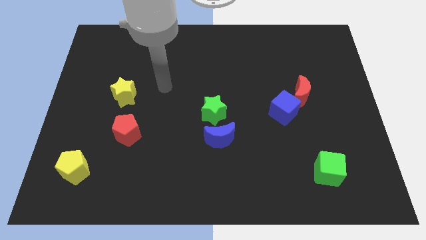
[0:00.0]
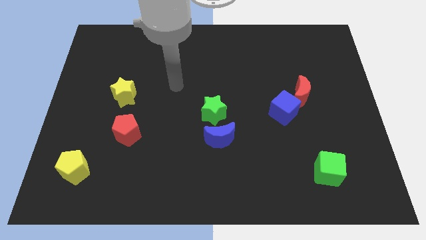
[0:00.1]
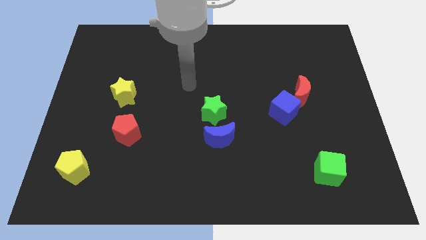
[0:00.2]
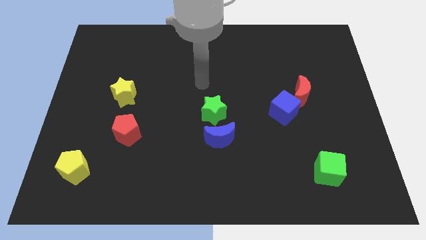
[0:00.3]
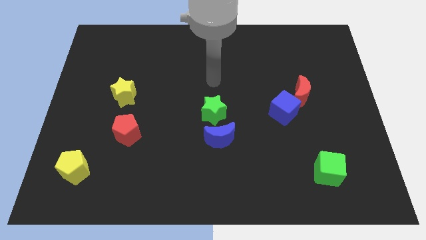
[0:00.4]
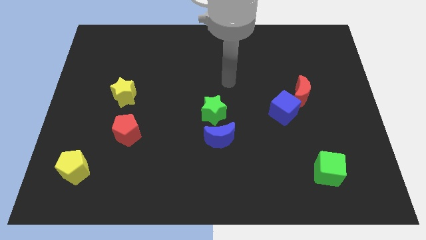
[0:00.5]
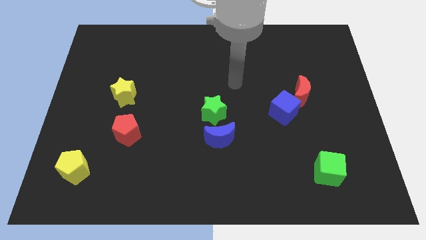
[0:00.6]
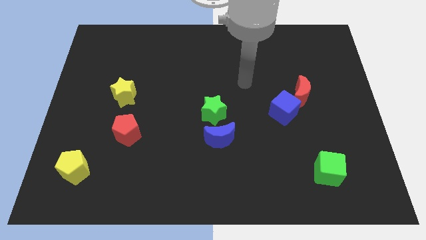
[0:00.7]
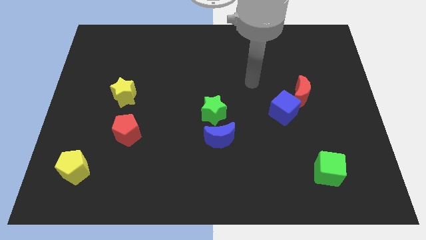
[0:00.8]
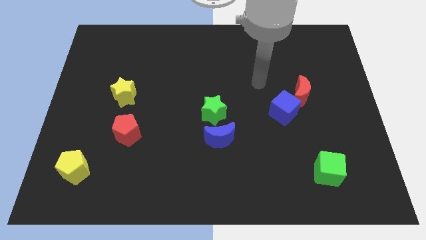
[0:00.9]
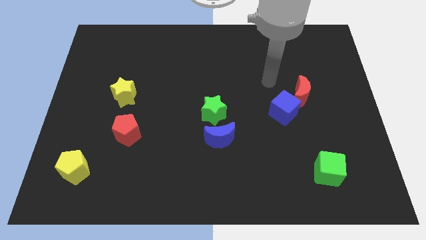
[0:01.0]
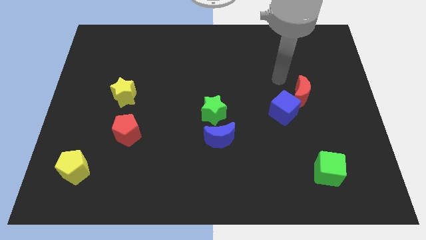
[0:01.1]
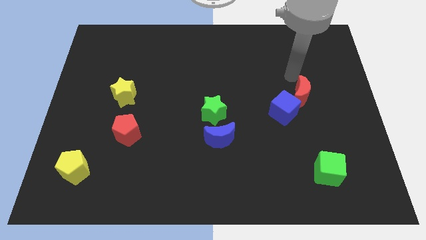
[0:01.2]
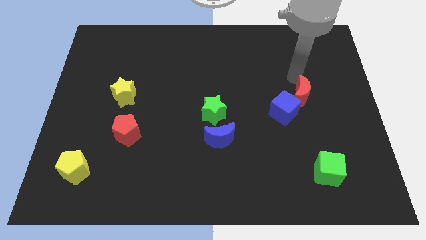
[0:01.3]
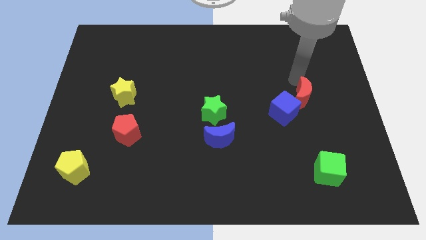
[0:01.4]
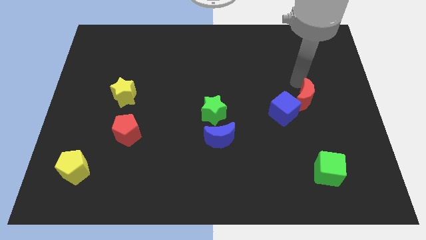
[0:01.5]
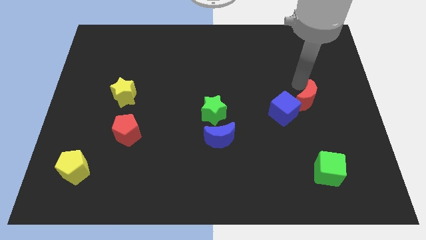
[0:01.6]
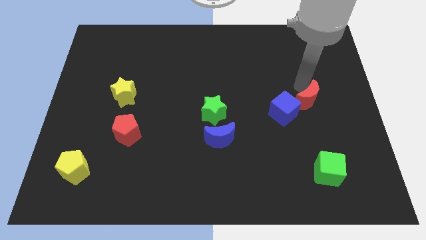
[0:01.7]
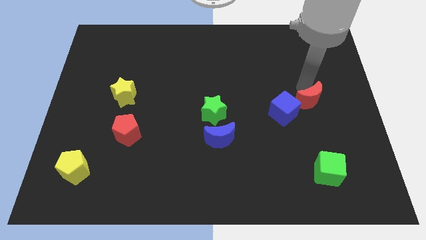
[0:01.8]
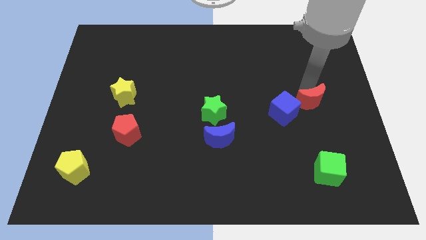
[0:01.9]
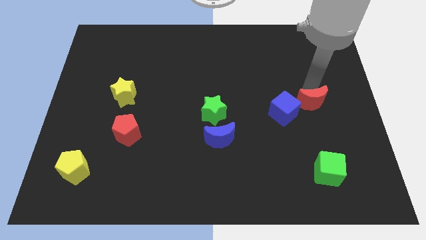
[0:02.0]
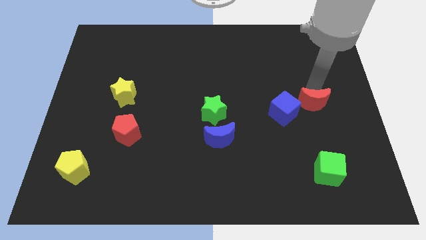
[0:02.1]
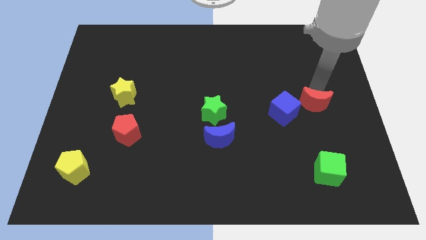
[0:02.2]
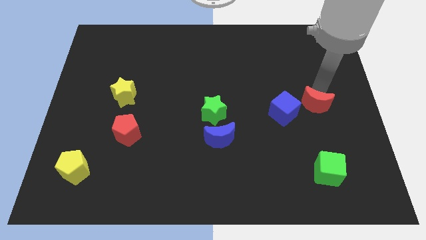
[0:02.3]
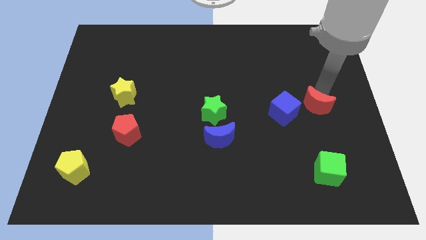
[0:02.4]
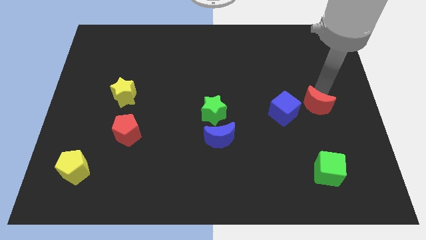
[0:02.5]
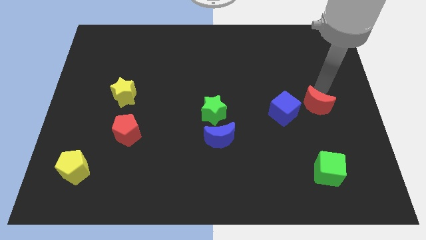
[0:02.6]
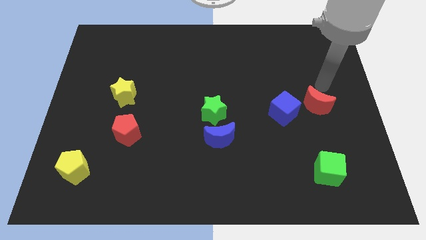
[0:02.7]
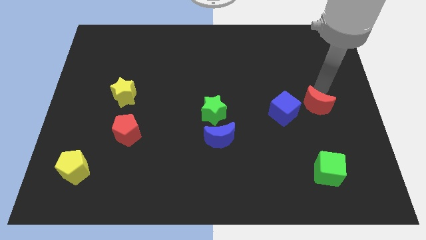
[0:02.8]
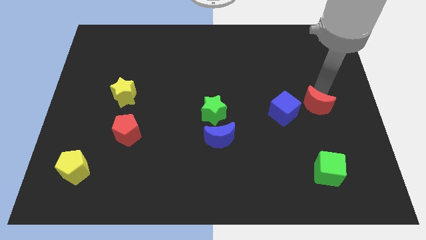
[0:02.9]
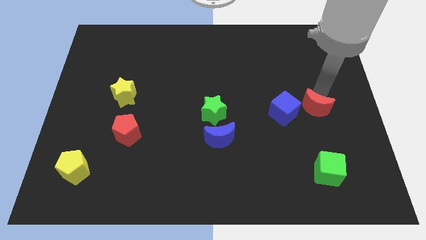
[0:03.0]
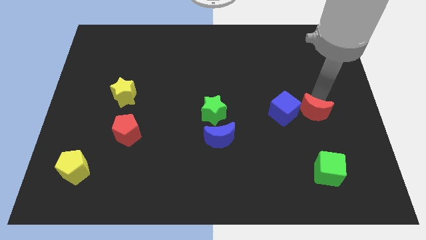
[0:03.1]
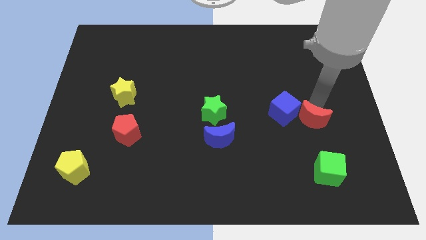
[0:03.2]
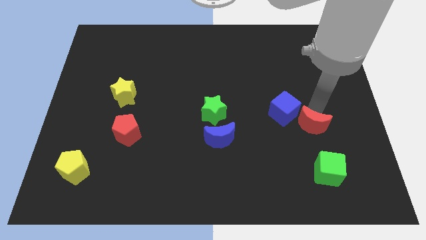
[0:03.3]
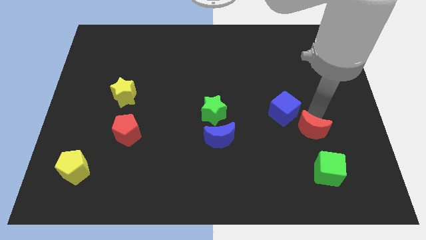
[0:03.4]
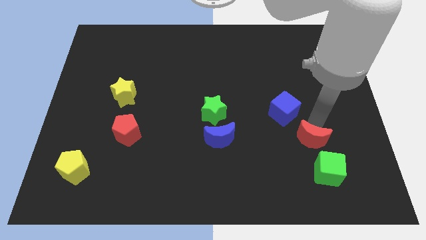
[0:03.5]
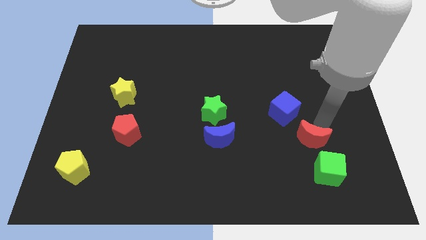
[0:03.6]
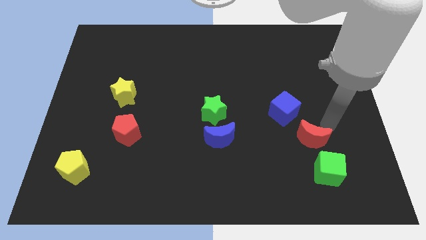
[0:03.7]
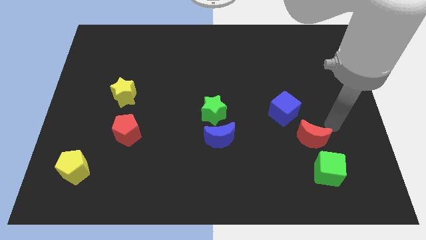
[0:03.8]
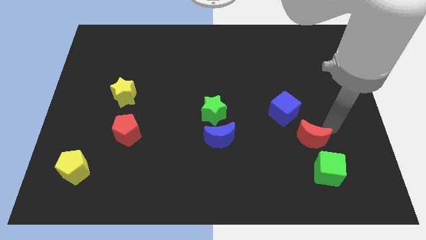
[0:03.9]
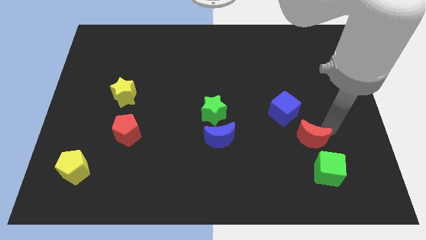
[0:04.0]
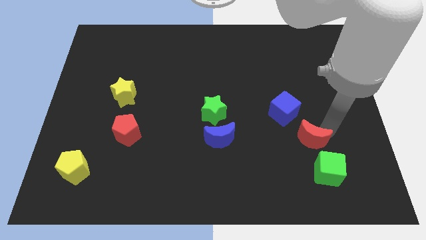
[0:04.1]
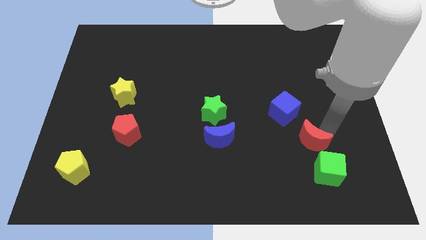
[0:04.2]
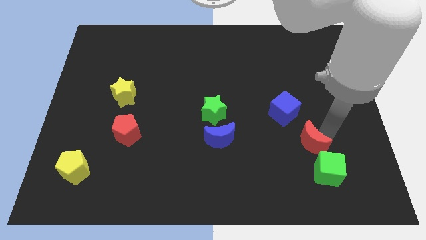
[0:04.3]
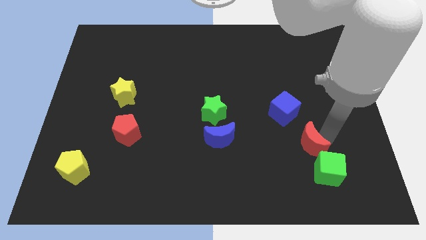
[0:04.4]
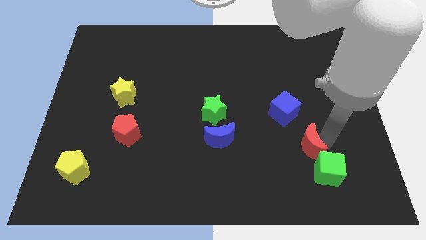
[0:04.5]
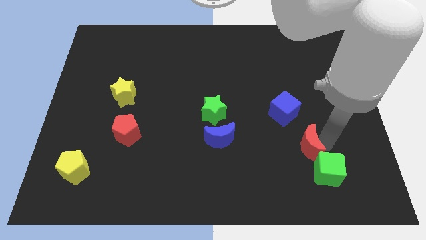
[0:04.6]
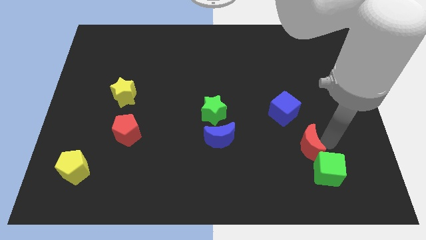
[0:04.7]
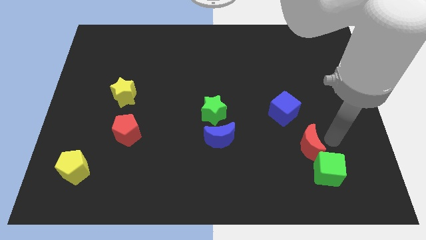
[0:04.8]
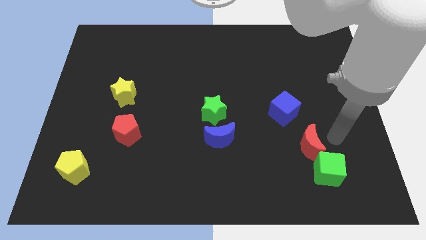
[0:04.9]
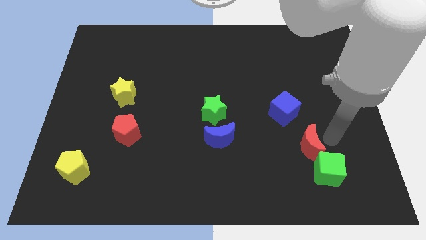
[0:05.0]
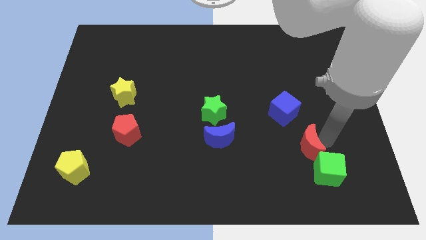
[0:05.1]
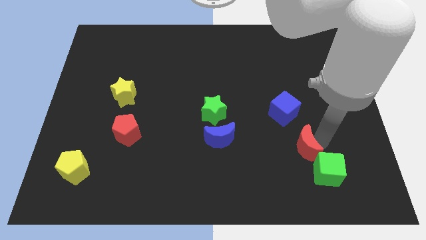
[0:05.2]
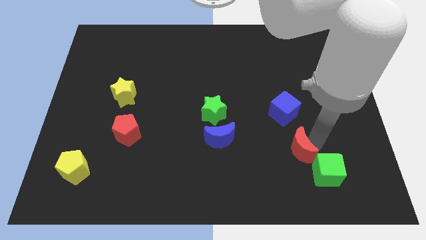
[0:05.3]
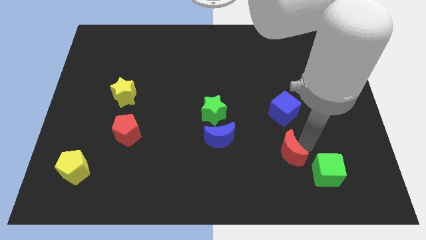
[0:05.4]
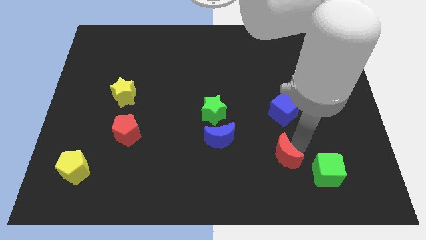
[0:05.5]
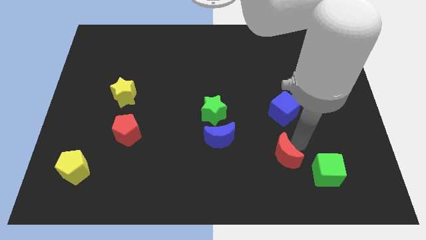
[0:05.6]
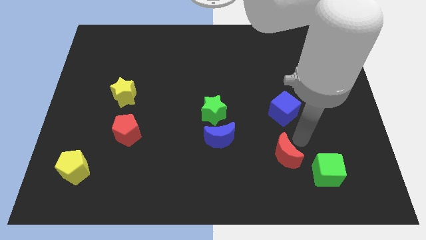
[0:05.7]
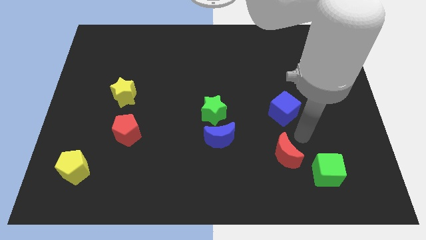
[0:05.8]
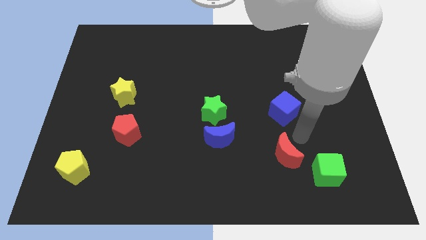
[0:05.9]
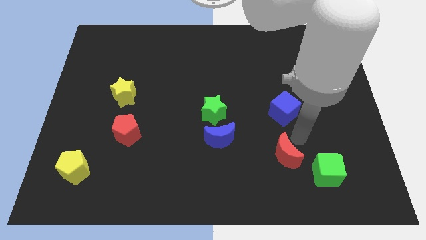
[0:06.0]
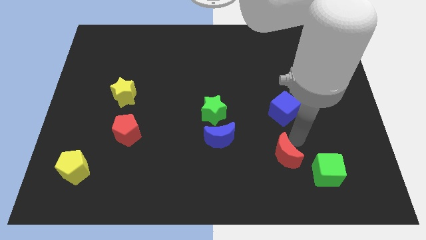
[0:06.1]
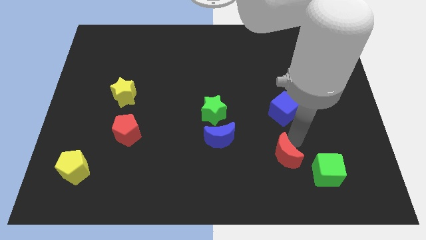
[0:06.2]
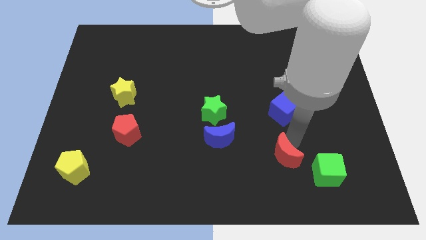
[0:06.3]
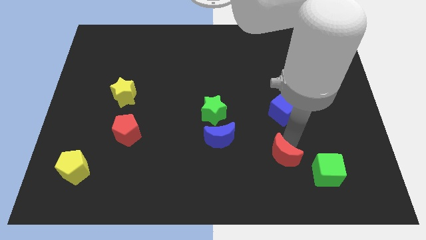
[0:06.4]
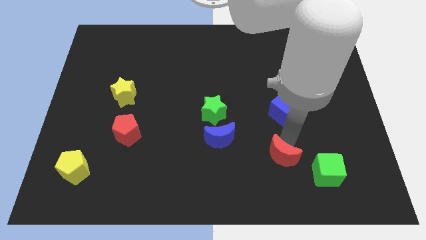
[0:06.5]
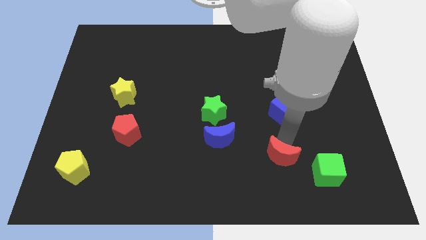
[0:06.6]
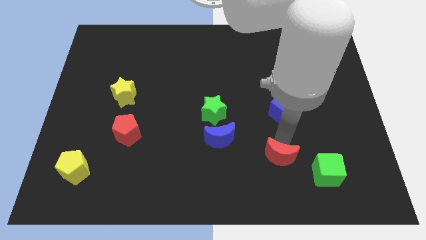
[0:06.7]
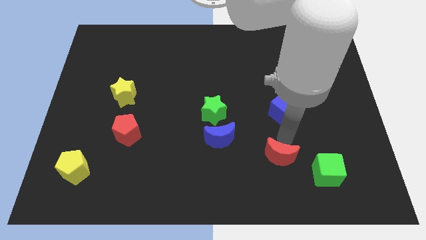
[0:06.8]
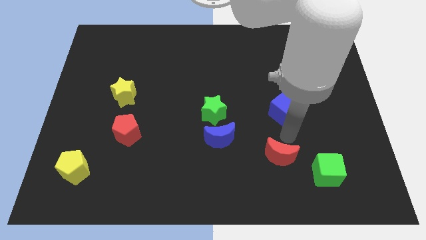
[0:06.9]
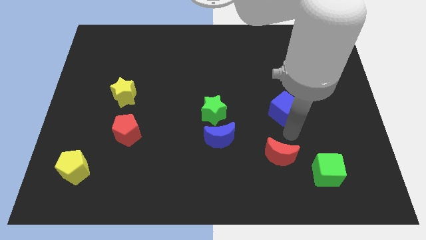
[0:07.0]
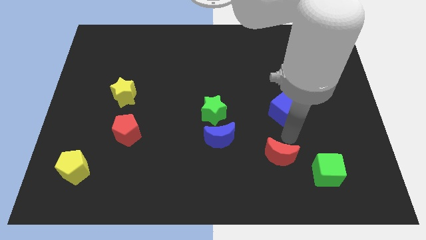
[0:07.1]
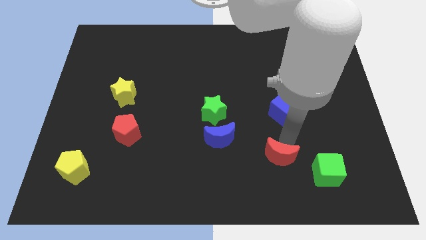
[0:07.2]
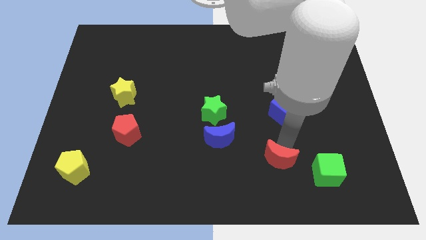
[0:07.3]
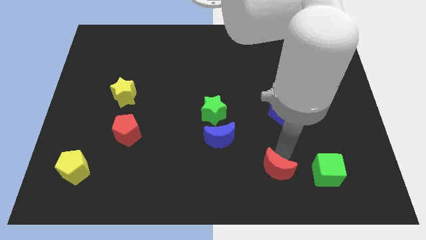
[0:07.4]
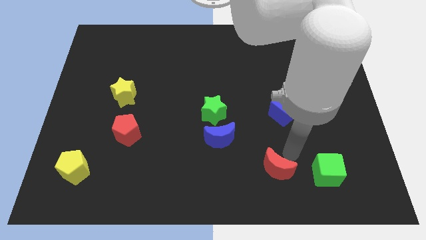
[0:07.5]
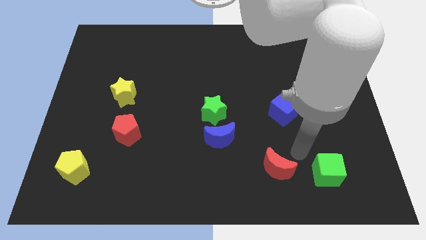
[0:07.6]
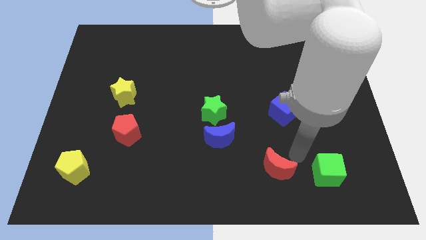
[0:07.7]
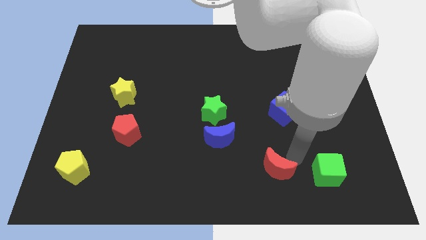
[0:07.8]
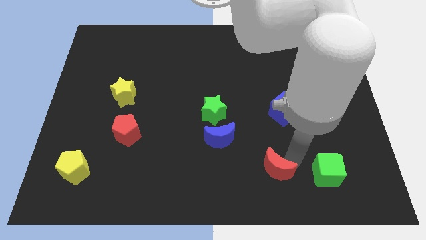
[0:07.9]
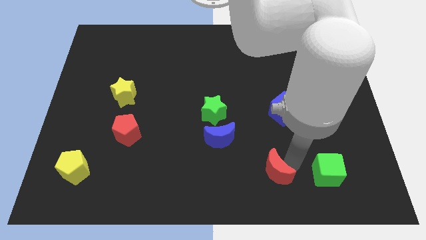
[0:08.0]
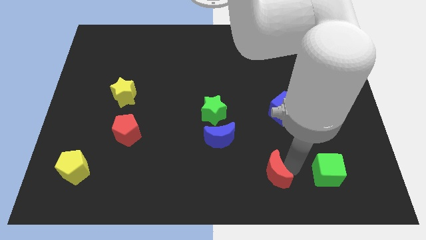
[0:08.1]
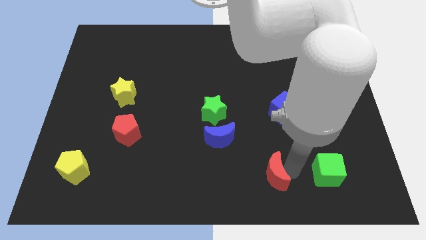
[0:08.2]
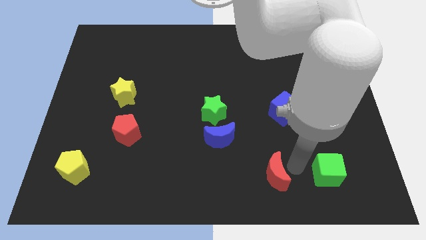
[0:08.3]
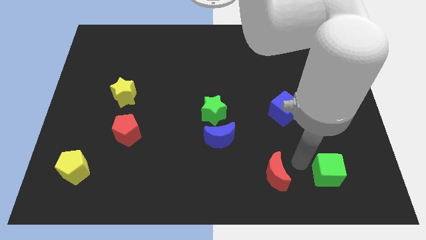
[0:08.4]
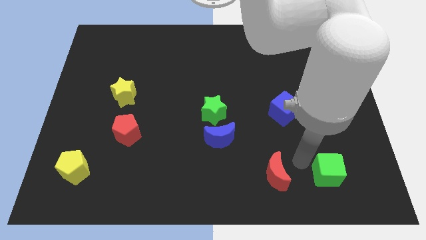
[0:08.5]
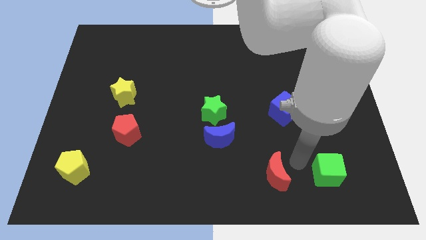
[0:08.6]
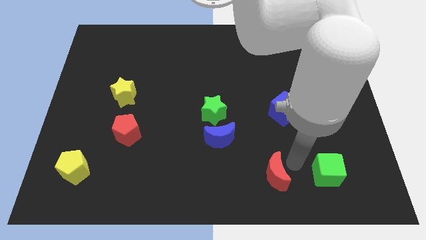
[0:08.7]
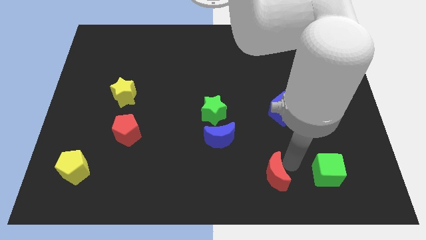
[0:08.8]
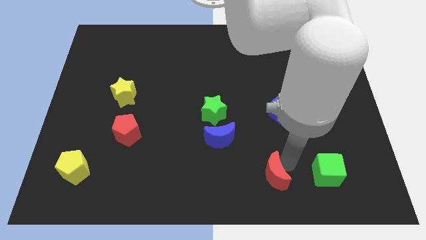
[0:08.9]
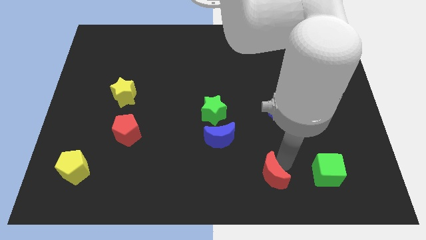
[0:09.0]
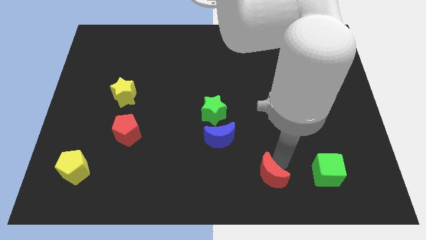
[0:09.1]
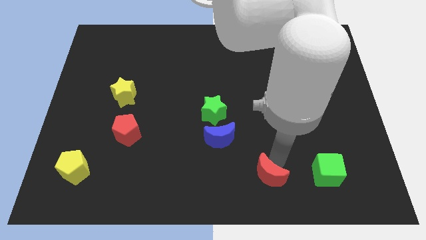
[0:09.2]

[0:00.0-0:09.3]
put the red moon to the bottom
